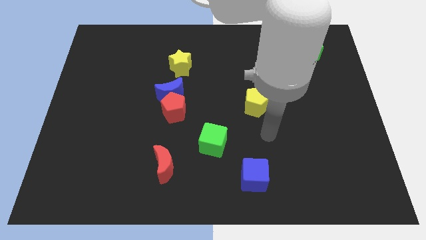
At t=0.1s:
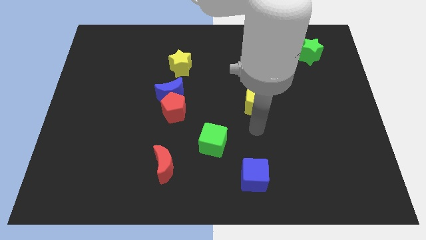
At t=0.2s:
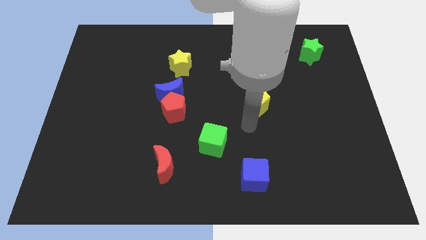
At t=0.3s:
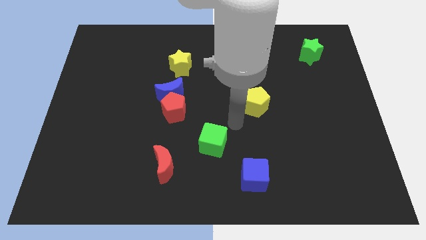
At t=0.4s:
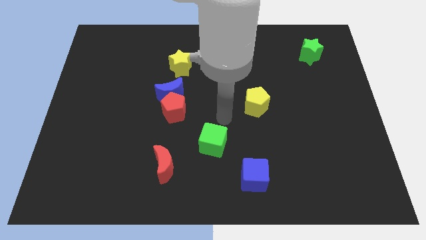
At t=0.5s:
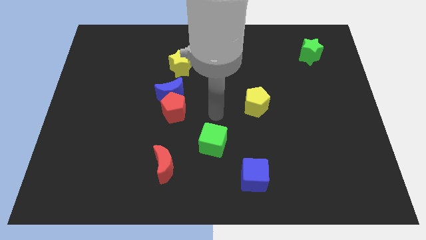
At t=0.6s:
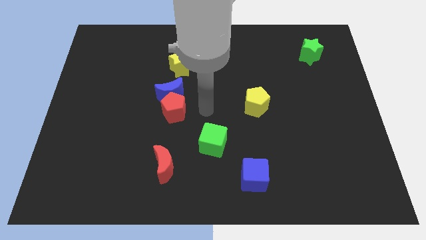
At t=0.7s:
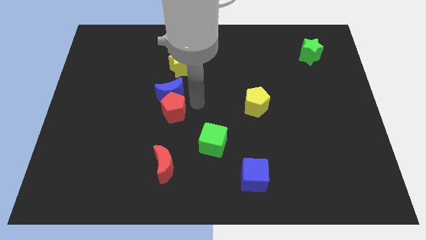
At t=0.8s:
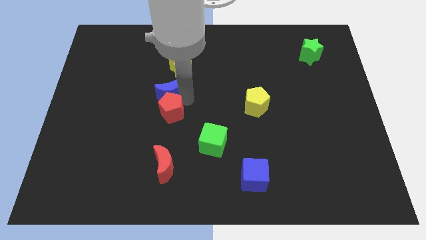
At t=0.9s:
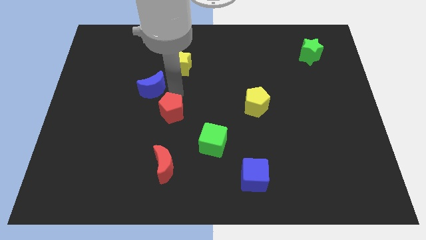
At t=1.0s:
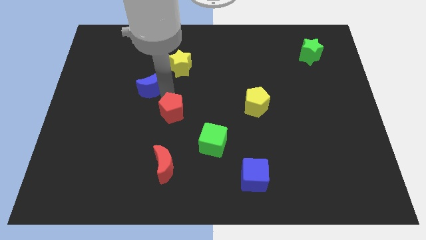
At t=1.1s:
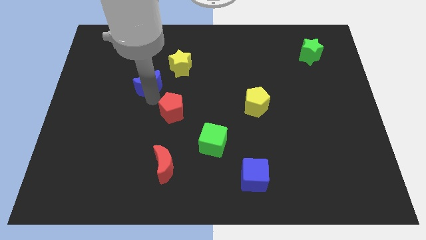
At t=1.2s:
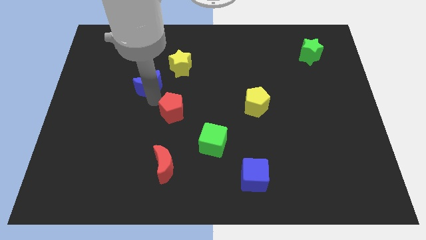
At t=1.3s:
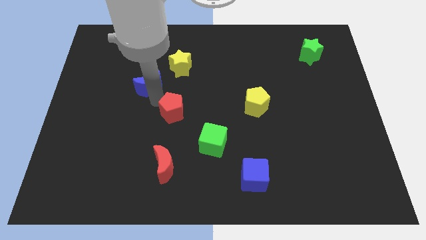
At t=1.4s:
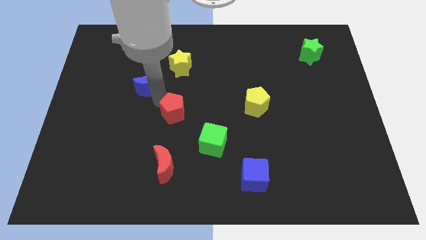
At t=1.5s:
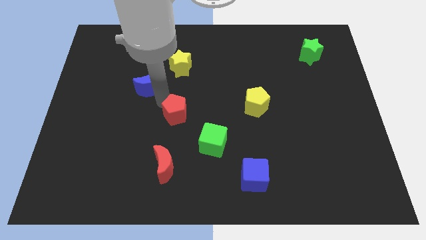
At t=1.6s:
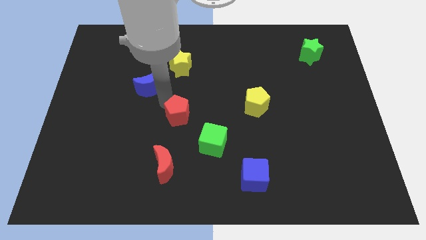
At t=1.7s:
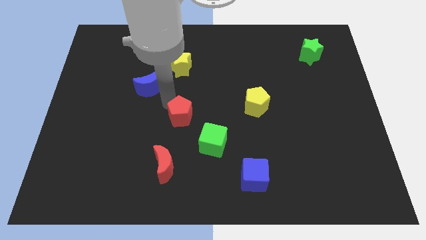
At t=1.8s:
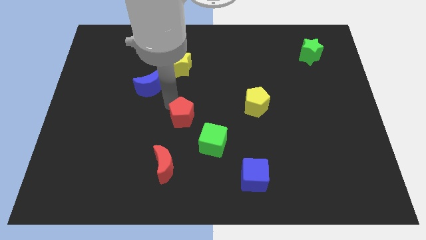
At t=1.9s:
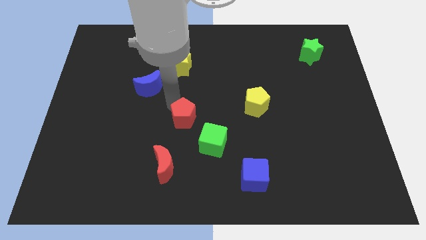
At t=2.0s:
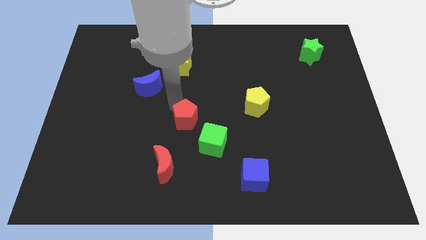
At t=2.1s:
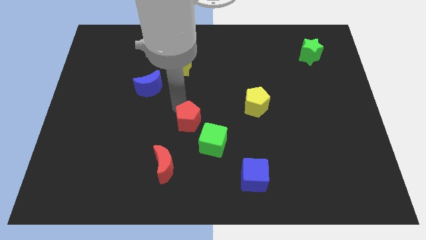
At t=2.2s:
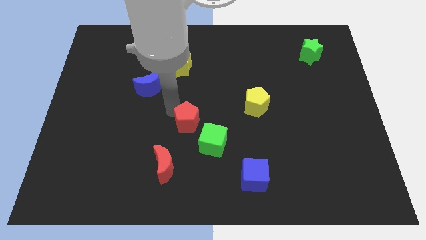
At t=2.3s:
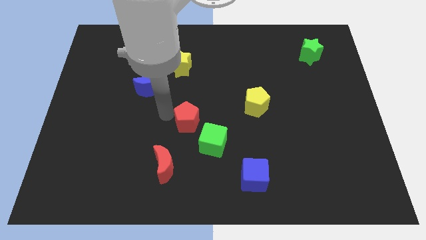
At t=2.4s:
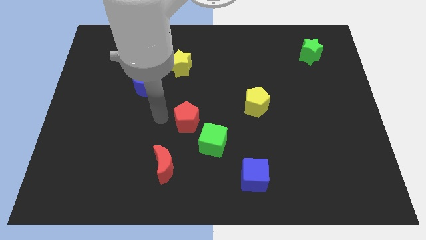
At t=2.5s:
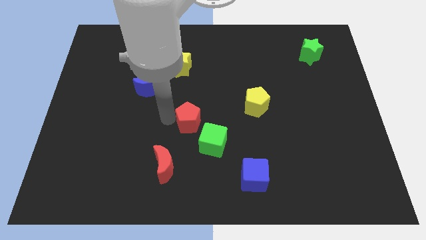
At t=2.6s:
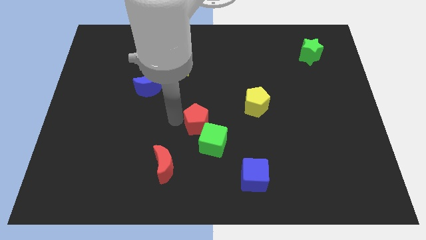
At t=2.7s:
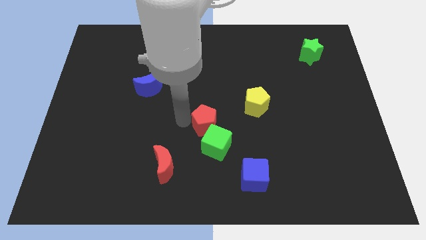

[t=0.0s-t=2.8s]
slightly slide the red pentagon down and then to the right

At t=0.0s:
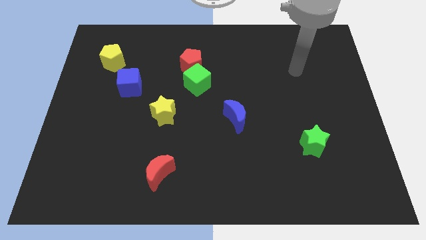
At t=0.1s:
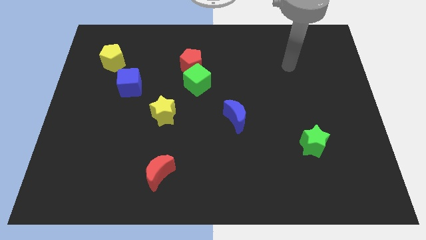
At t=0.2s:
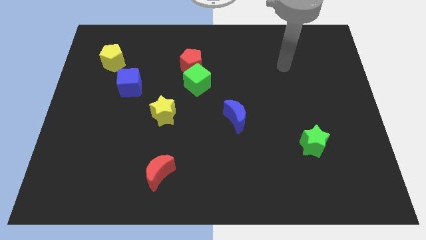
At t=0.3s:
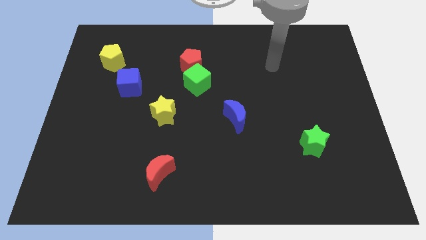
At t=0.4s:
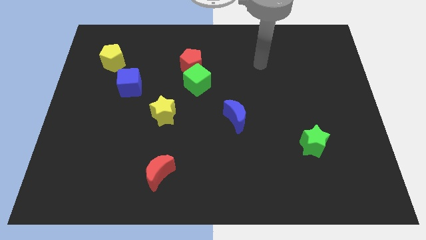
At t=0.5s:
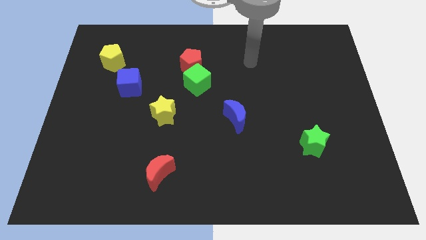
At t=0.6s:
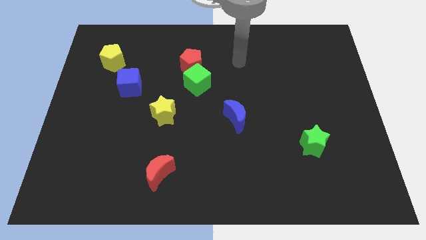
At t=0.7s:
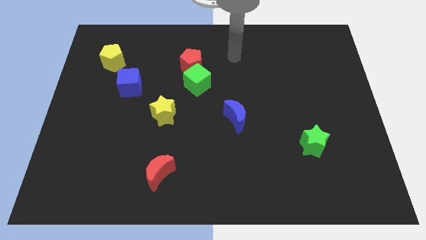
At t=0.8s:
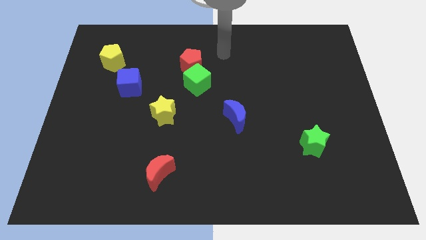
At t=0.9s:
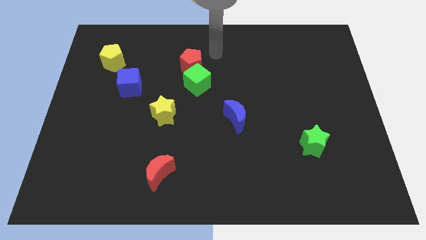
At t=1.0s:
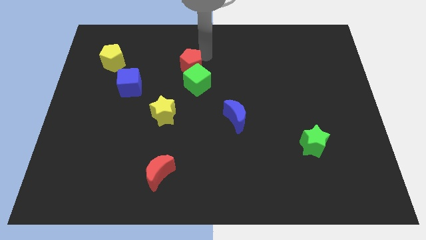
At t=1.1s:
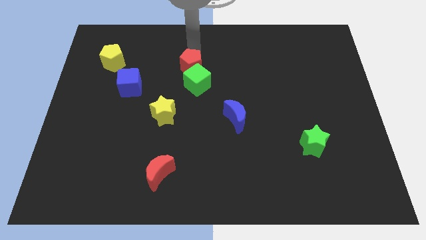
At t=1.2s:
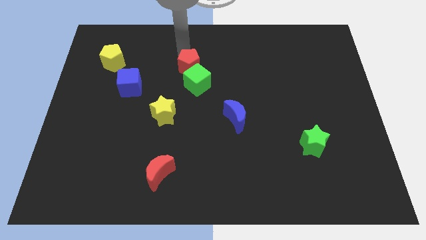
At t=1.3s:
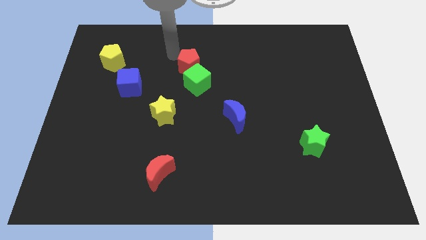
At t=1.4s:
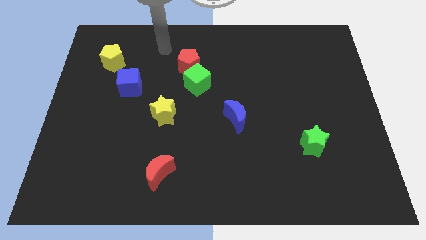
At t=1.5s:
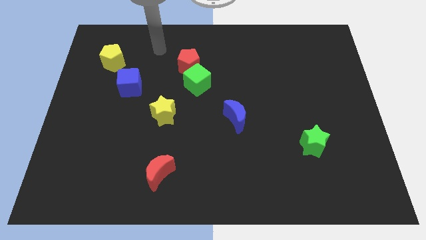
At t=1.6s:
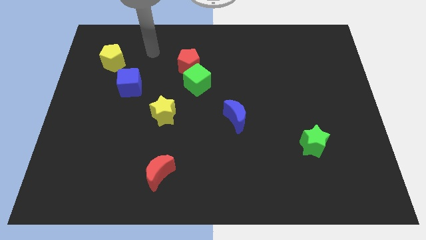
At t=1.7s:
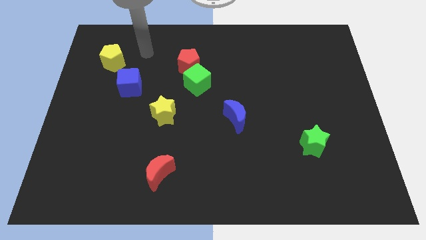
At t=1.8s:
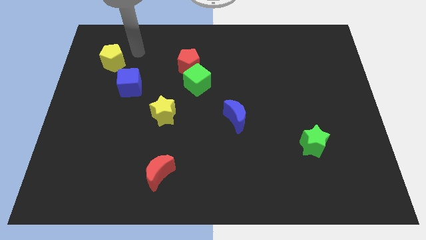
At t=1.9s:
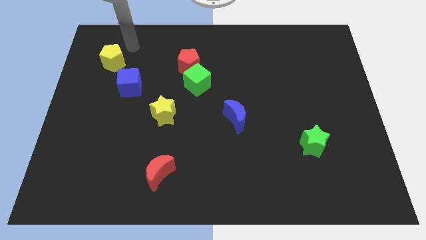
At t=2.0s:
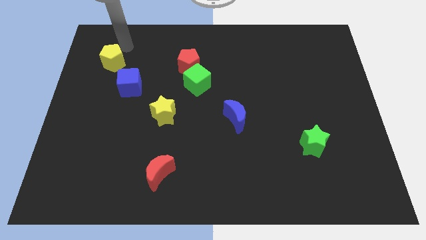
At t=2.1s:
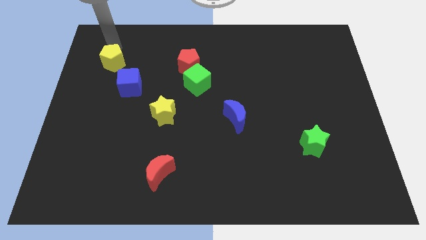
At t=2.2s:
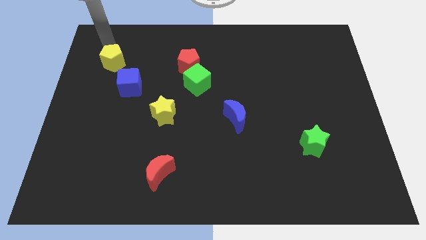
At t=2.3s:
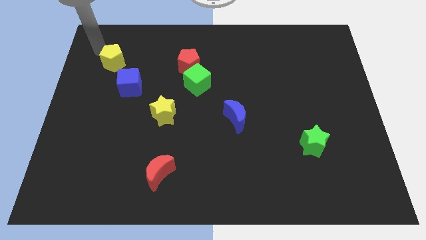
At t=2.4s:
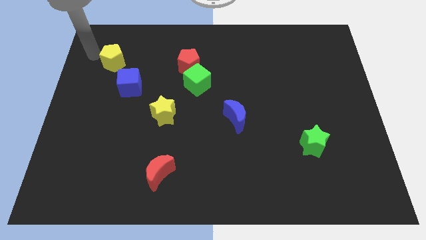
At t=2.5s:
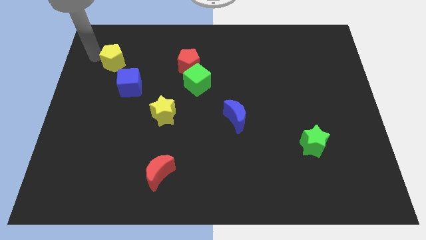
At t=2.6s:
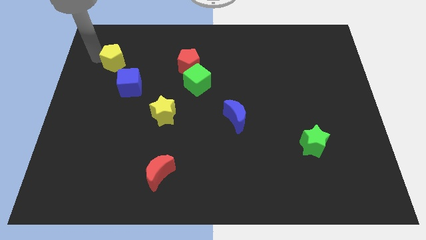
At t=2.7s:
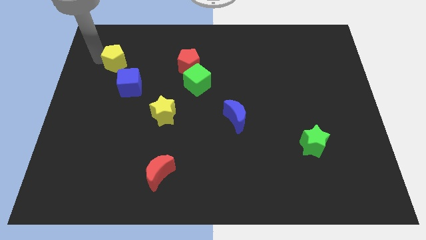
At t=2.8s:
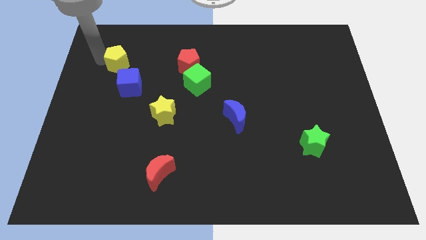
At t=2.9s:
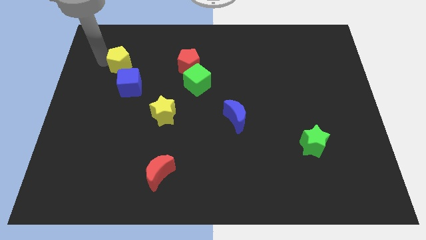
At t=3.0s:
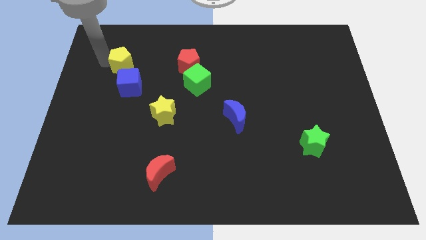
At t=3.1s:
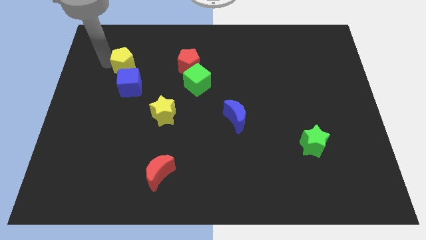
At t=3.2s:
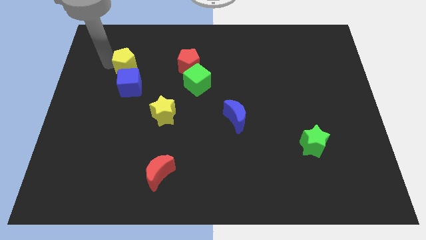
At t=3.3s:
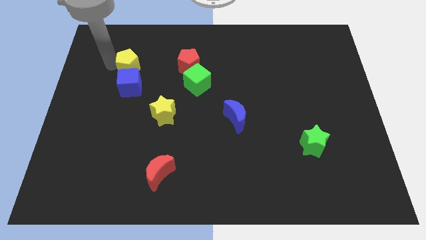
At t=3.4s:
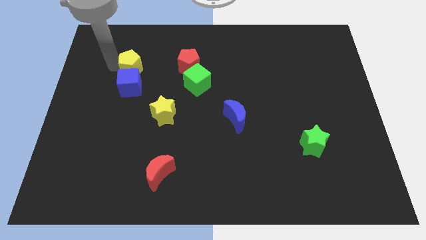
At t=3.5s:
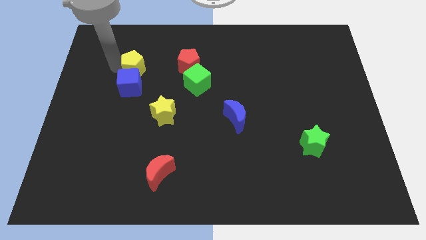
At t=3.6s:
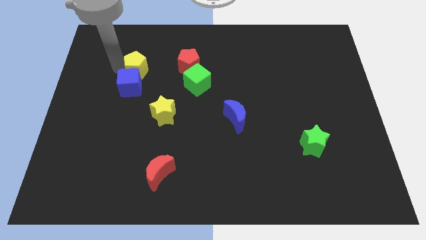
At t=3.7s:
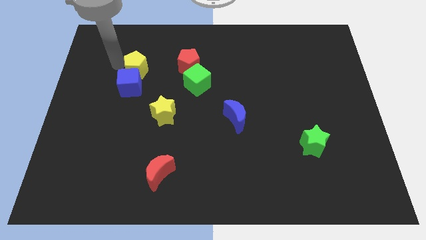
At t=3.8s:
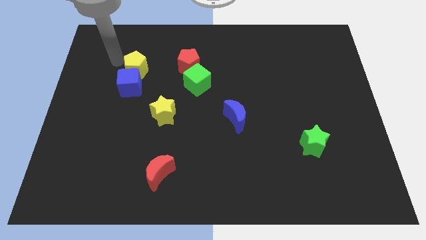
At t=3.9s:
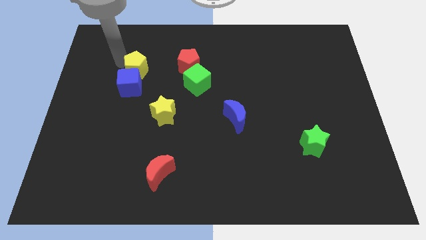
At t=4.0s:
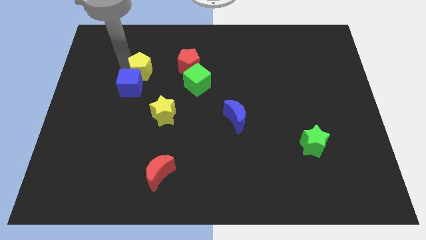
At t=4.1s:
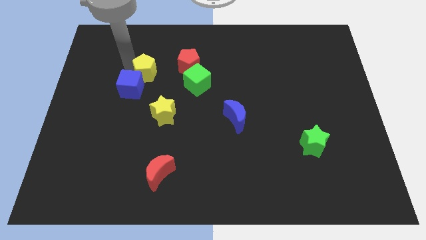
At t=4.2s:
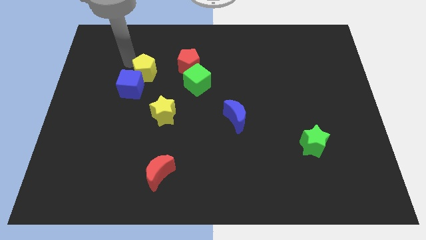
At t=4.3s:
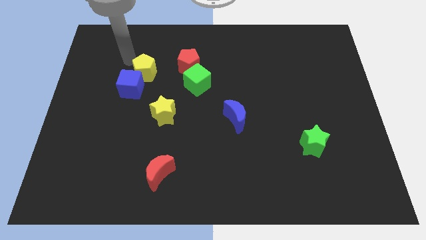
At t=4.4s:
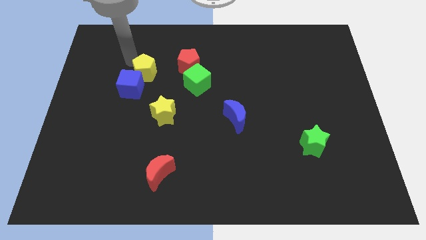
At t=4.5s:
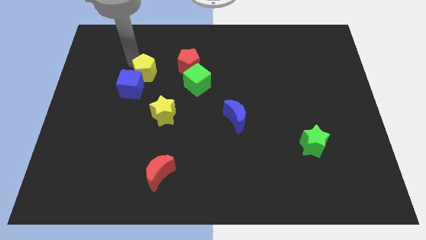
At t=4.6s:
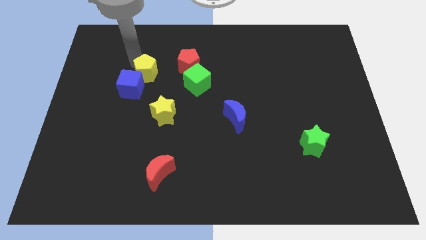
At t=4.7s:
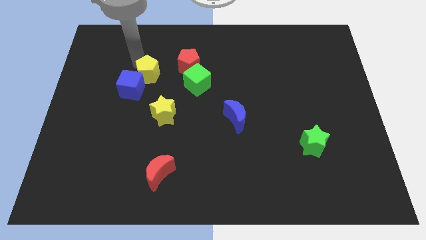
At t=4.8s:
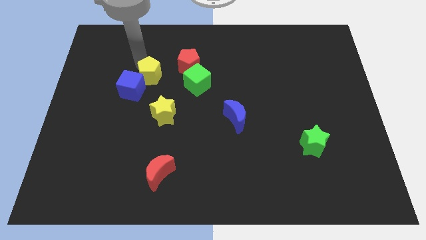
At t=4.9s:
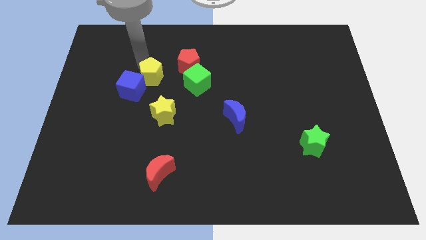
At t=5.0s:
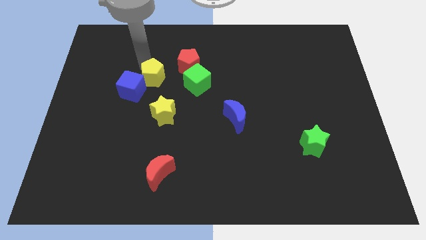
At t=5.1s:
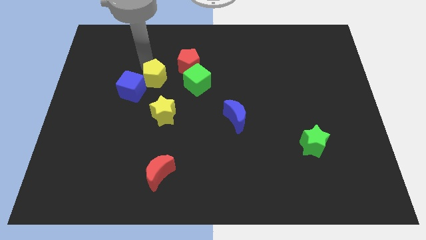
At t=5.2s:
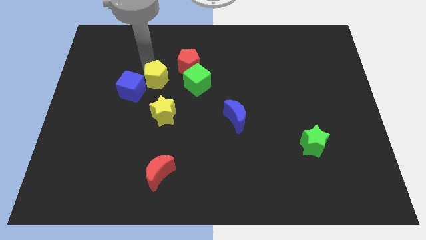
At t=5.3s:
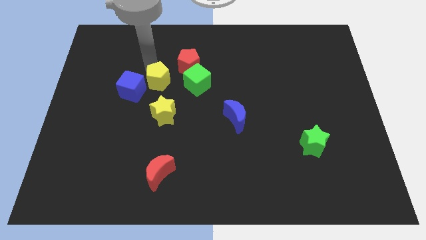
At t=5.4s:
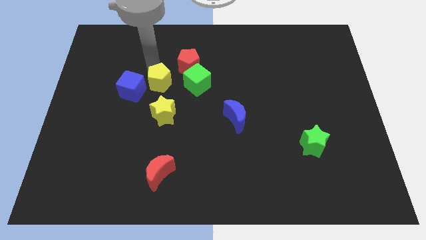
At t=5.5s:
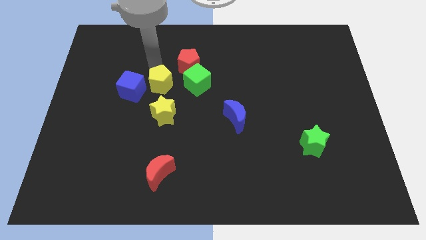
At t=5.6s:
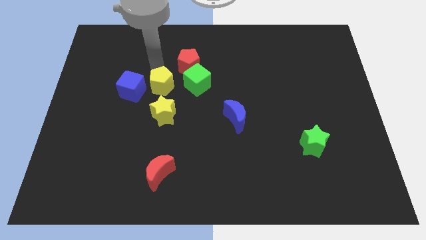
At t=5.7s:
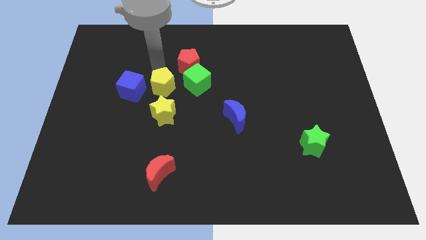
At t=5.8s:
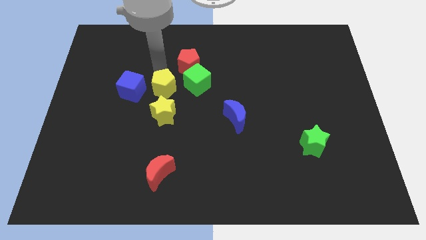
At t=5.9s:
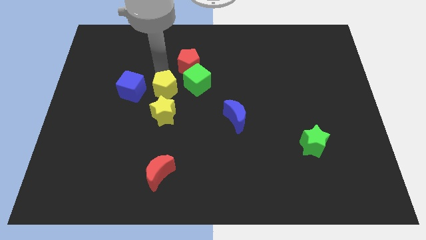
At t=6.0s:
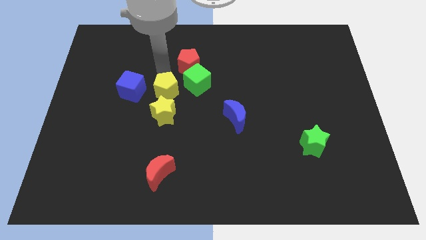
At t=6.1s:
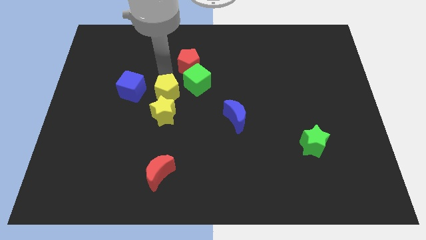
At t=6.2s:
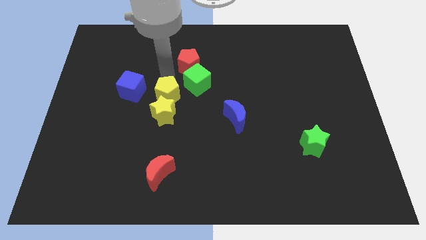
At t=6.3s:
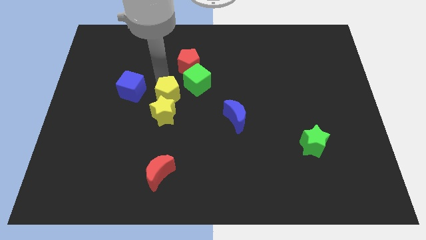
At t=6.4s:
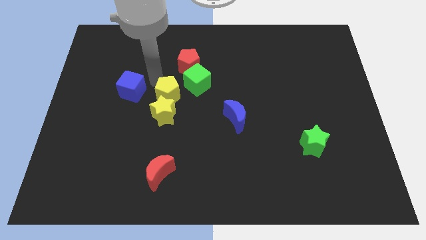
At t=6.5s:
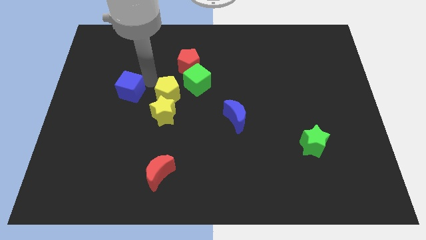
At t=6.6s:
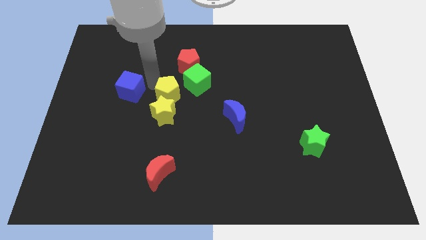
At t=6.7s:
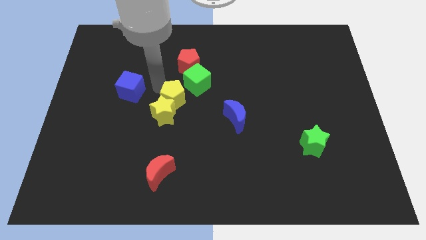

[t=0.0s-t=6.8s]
move the yellow pentagon downwards and right diagonally
